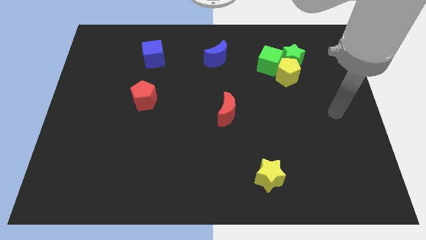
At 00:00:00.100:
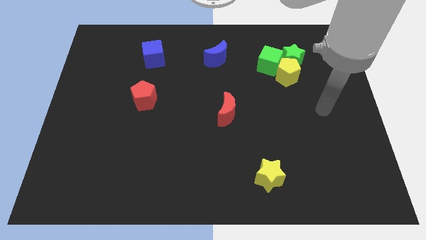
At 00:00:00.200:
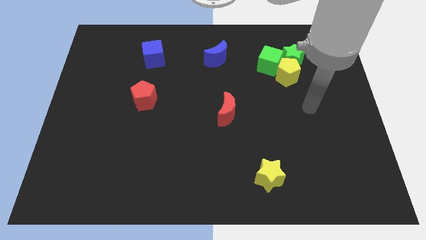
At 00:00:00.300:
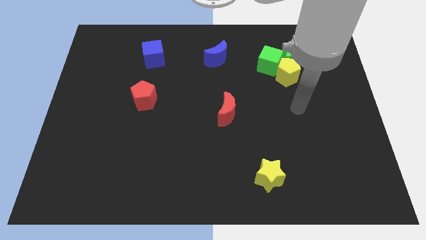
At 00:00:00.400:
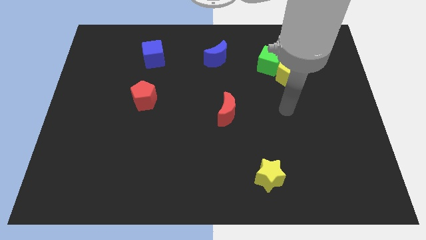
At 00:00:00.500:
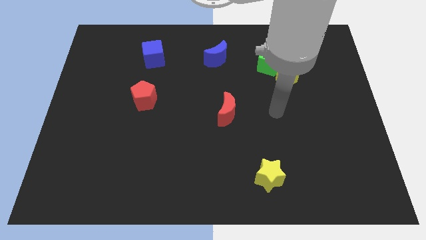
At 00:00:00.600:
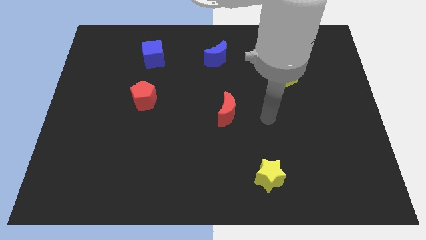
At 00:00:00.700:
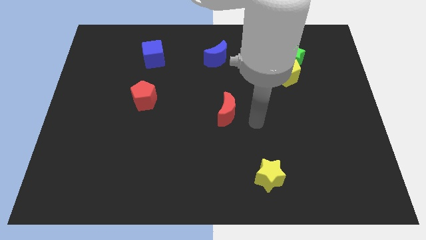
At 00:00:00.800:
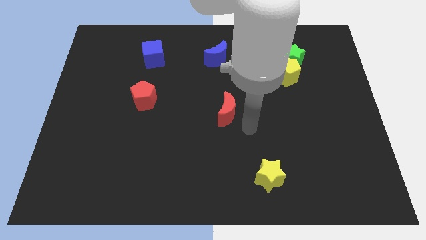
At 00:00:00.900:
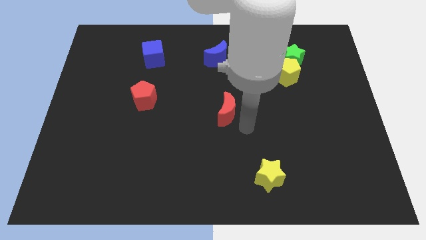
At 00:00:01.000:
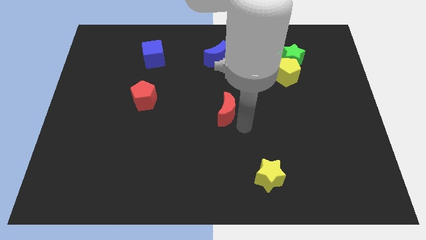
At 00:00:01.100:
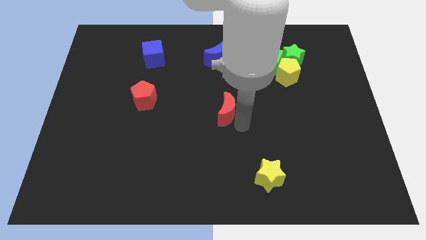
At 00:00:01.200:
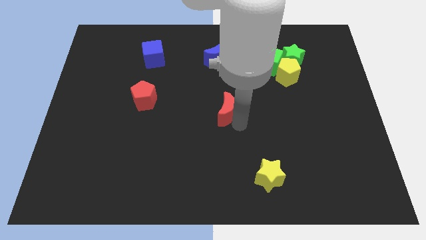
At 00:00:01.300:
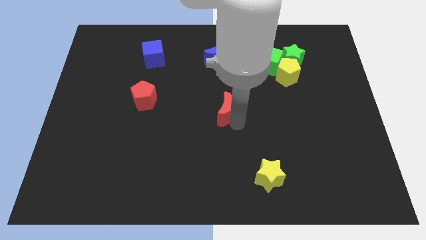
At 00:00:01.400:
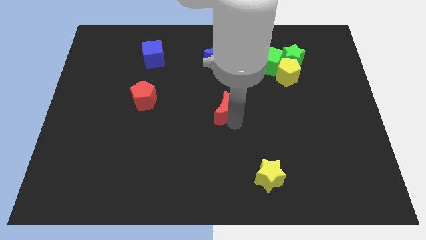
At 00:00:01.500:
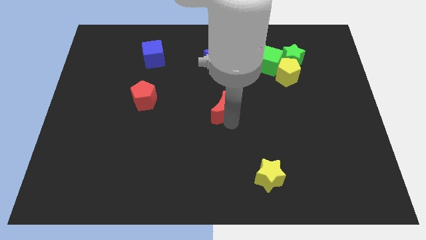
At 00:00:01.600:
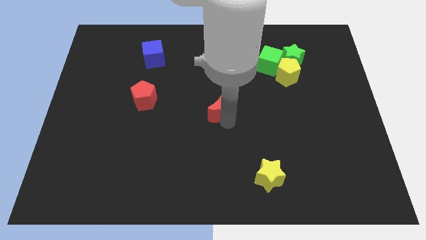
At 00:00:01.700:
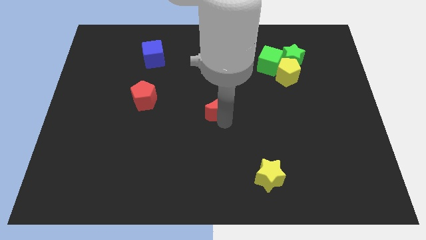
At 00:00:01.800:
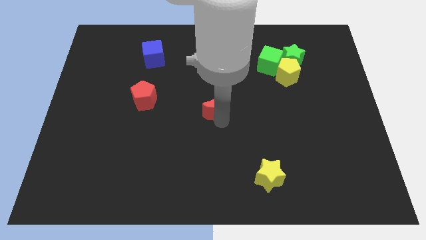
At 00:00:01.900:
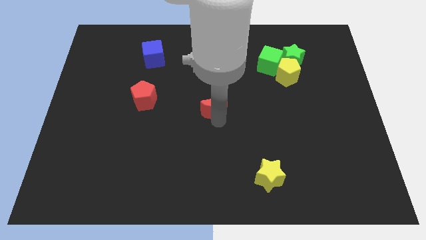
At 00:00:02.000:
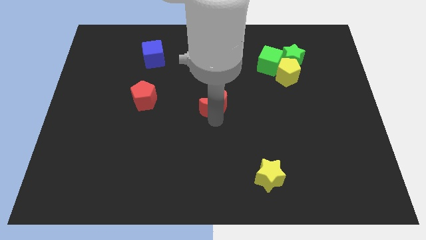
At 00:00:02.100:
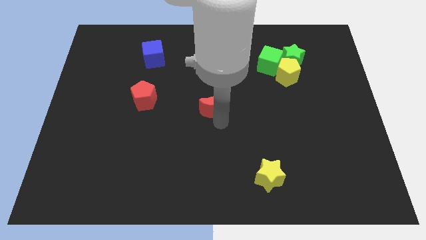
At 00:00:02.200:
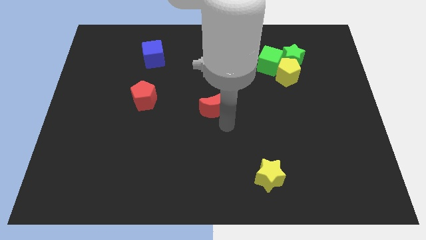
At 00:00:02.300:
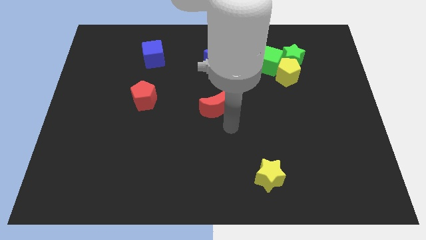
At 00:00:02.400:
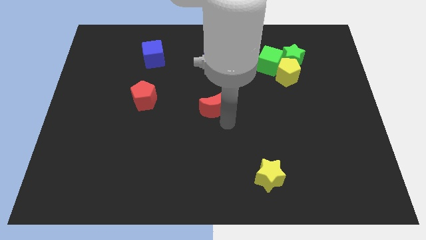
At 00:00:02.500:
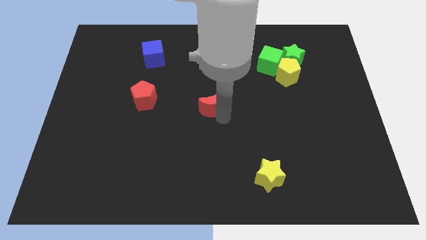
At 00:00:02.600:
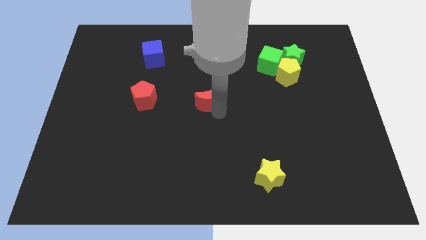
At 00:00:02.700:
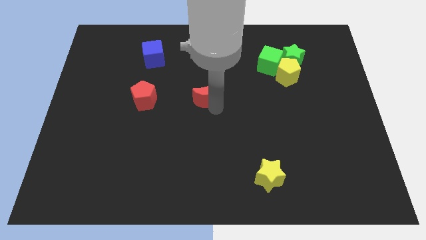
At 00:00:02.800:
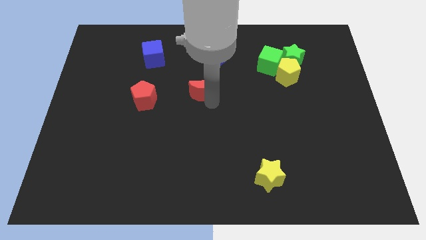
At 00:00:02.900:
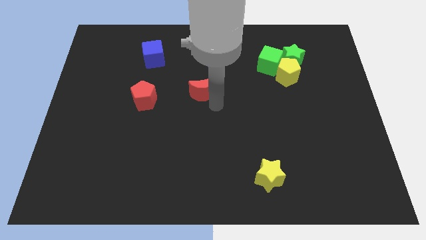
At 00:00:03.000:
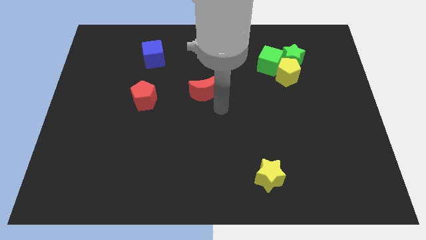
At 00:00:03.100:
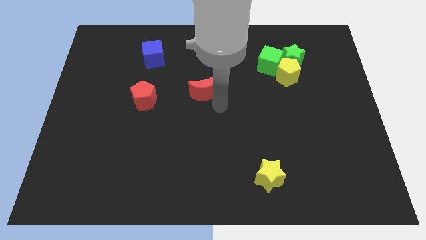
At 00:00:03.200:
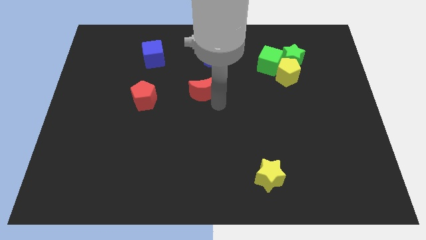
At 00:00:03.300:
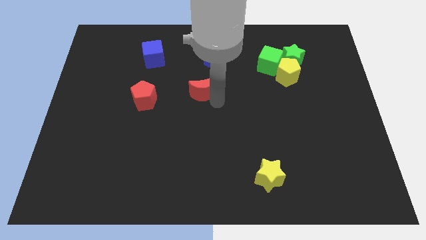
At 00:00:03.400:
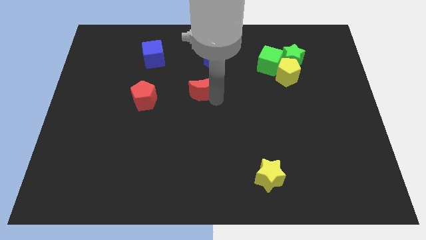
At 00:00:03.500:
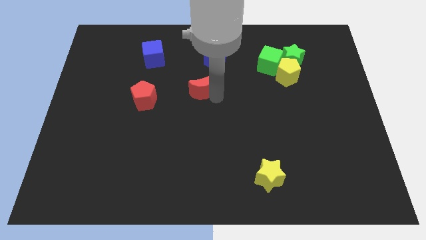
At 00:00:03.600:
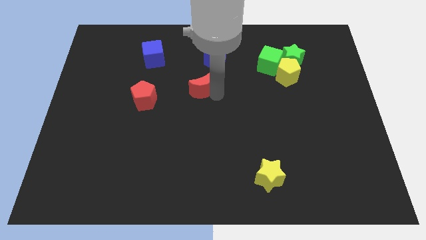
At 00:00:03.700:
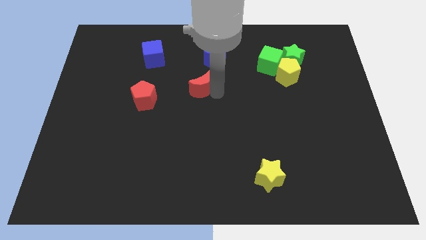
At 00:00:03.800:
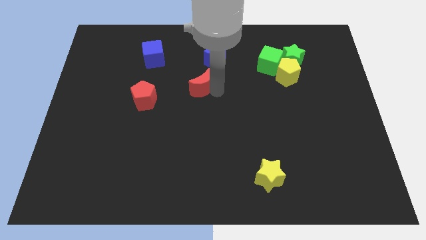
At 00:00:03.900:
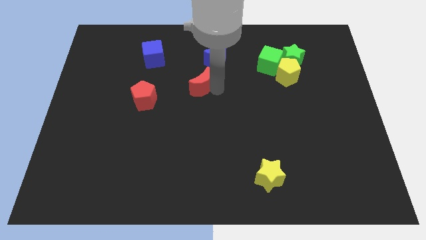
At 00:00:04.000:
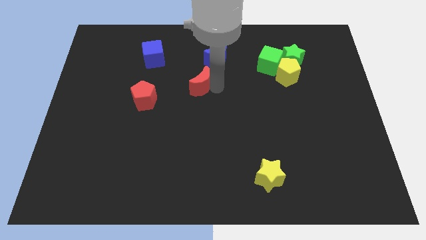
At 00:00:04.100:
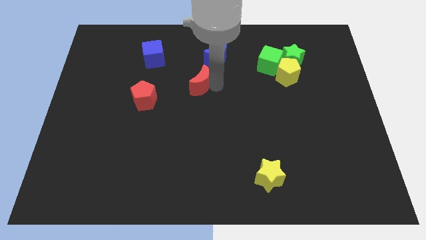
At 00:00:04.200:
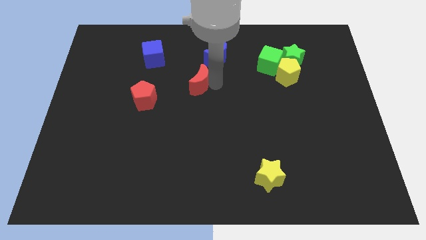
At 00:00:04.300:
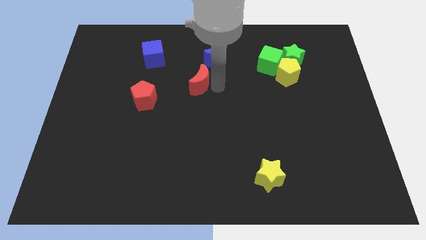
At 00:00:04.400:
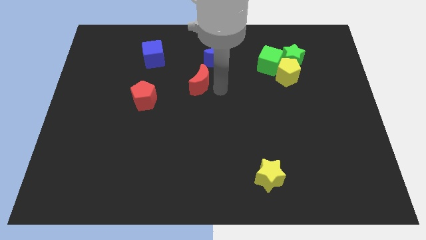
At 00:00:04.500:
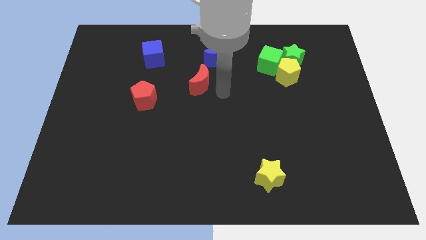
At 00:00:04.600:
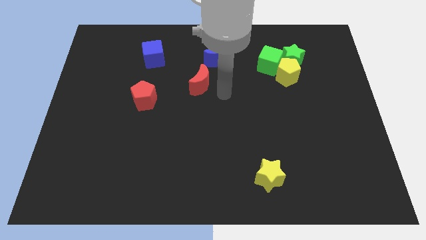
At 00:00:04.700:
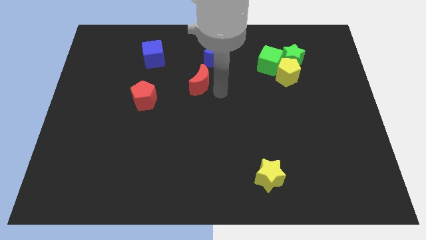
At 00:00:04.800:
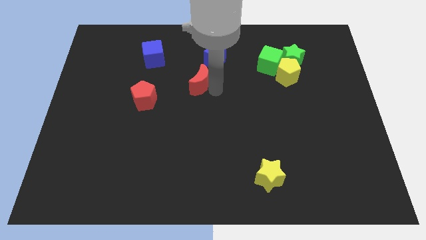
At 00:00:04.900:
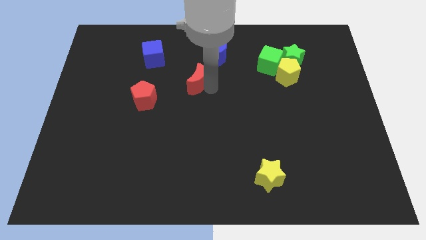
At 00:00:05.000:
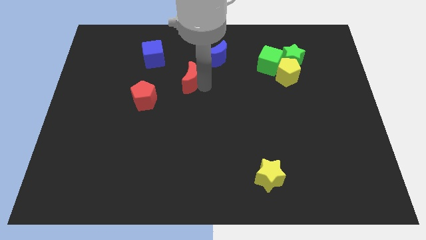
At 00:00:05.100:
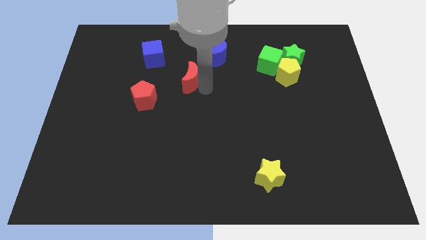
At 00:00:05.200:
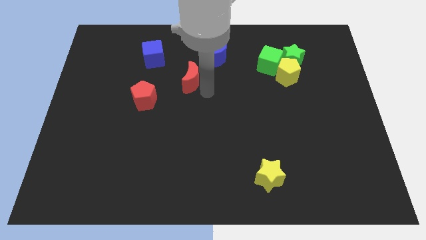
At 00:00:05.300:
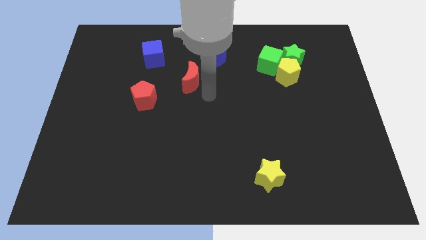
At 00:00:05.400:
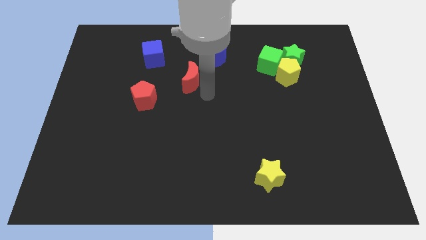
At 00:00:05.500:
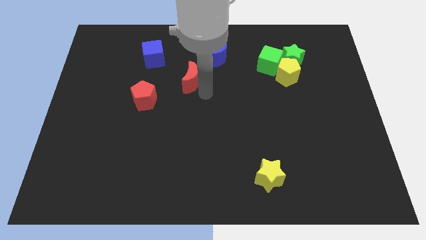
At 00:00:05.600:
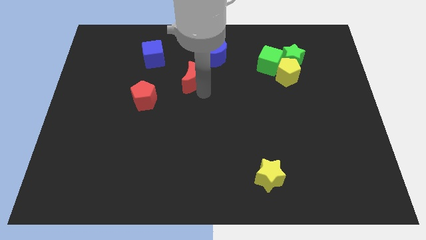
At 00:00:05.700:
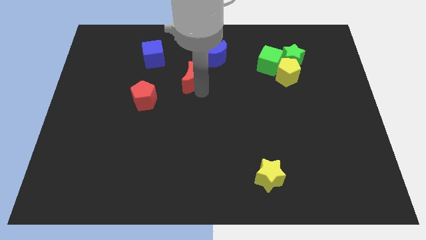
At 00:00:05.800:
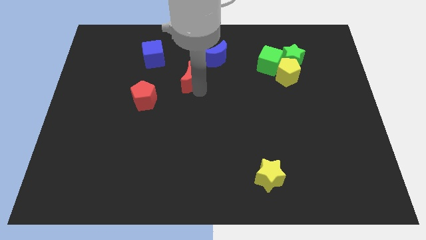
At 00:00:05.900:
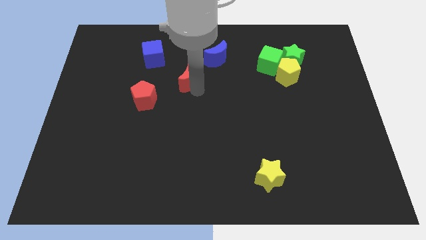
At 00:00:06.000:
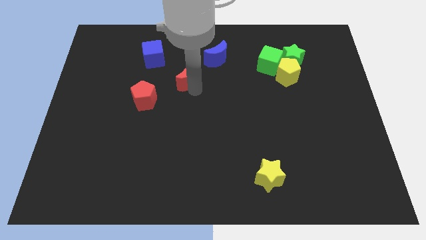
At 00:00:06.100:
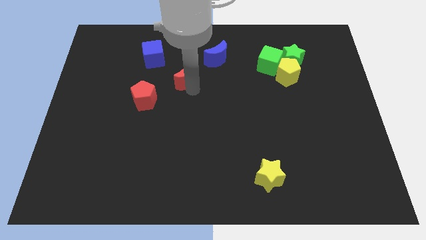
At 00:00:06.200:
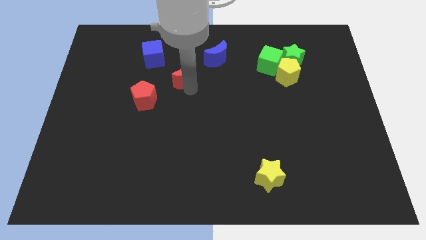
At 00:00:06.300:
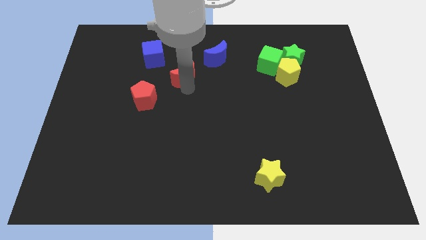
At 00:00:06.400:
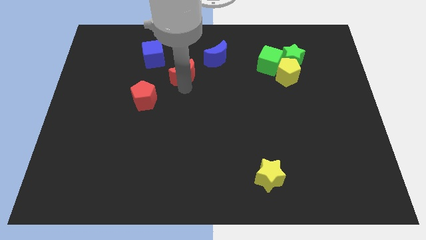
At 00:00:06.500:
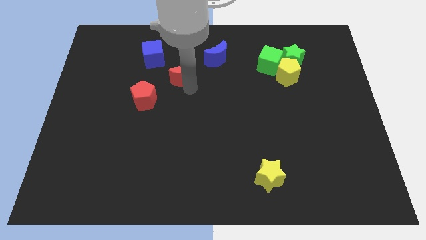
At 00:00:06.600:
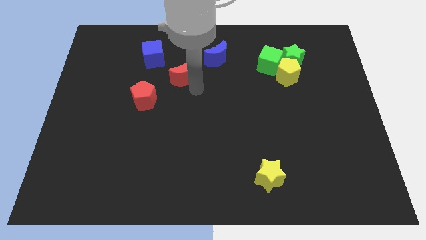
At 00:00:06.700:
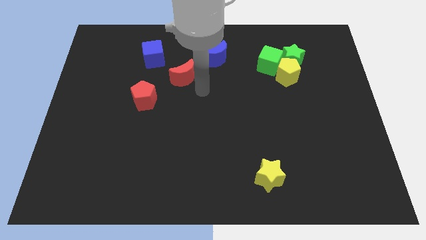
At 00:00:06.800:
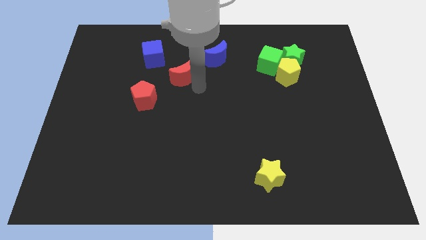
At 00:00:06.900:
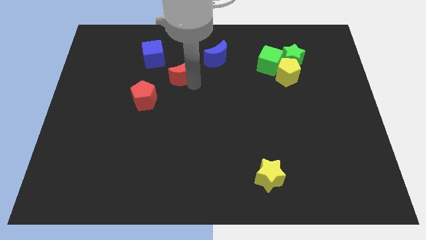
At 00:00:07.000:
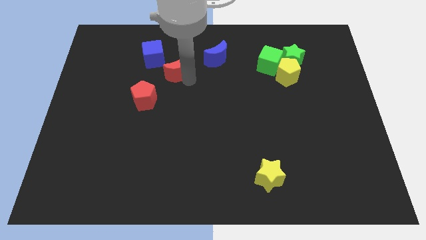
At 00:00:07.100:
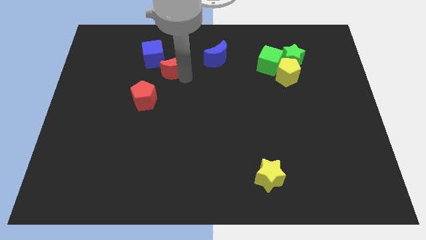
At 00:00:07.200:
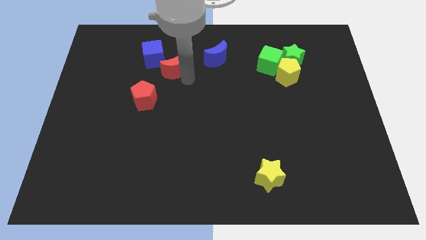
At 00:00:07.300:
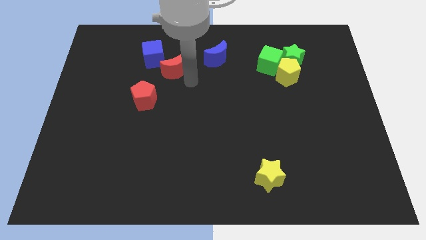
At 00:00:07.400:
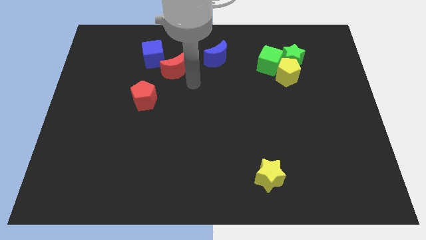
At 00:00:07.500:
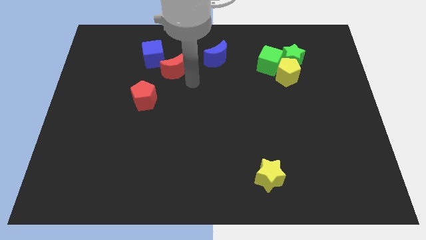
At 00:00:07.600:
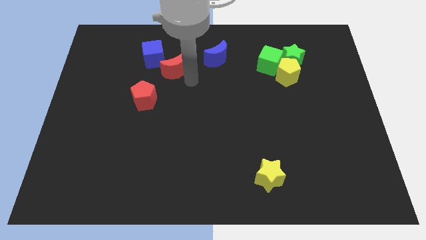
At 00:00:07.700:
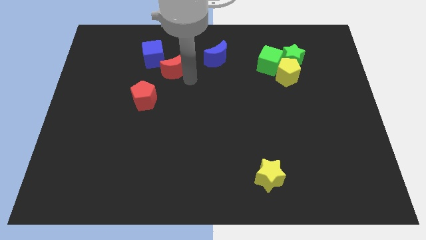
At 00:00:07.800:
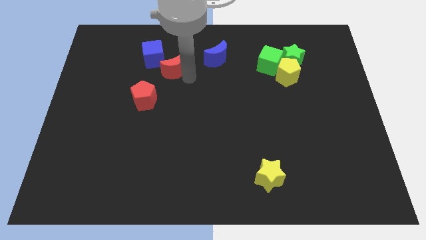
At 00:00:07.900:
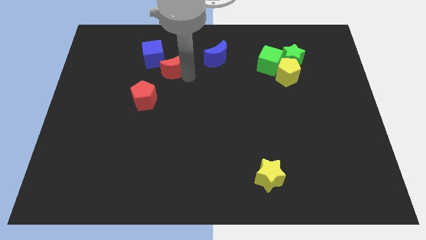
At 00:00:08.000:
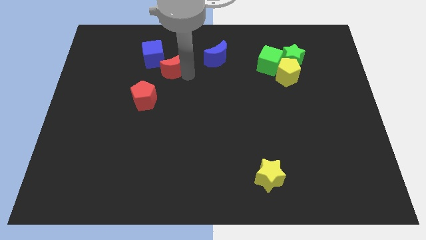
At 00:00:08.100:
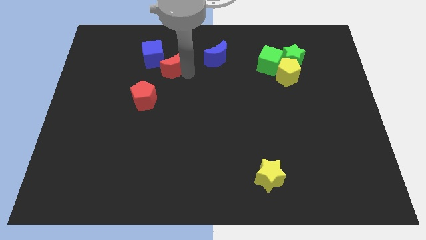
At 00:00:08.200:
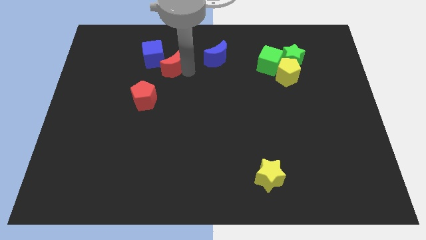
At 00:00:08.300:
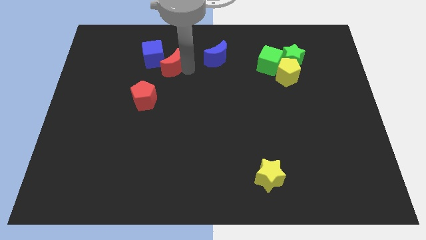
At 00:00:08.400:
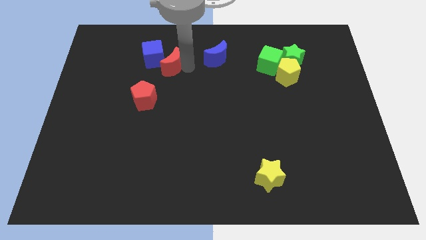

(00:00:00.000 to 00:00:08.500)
slide the red moon towards the blue cube
